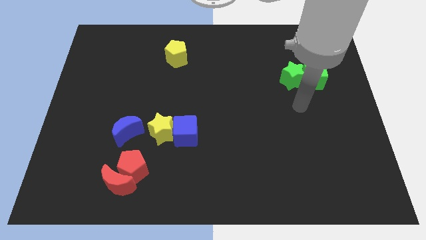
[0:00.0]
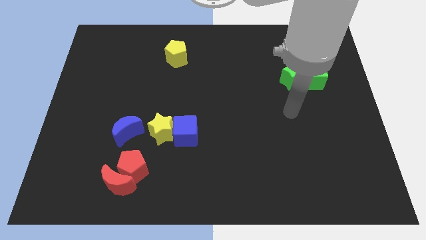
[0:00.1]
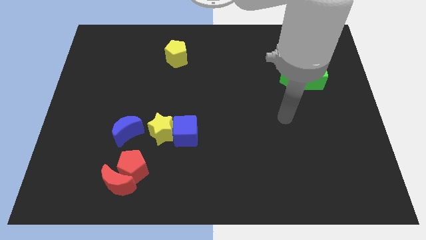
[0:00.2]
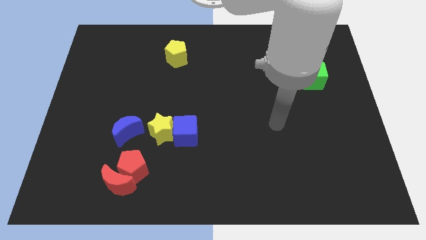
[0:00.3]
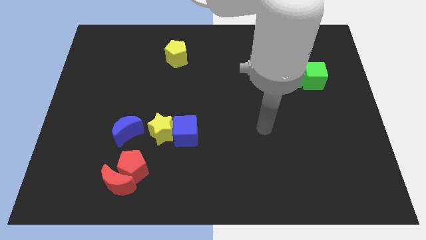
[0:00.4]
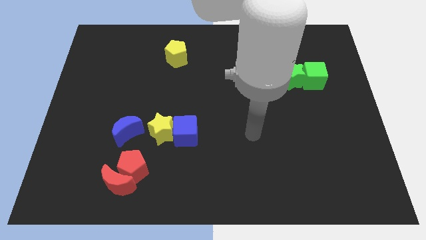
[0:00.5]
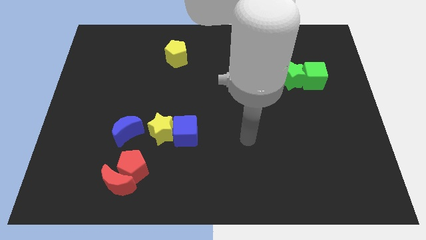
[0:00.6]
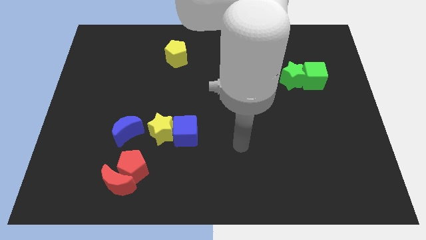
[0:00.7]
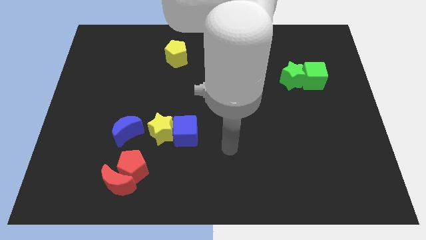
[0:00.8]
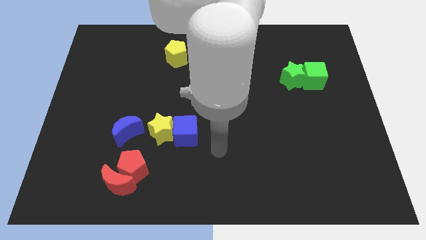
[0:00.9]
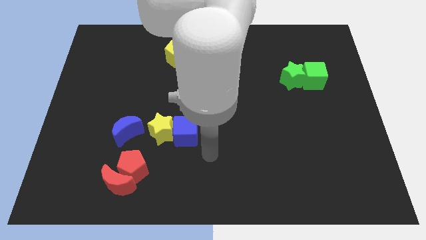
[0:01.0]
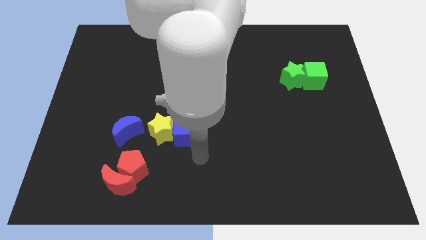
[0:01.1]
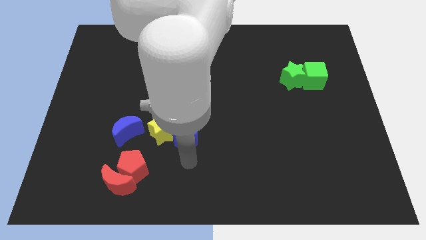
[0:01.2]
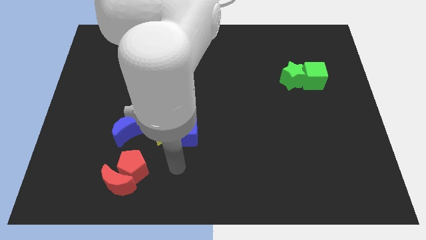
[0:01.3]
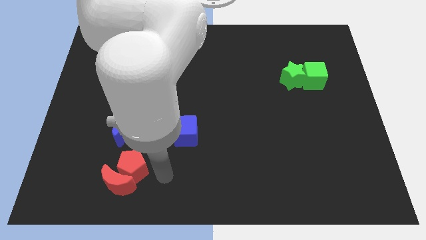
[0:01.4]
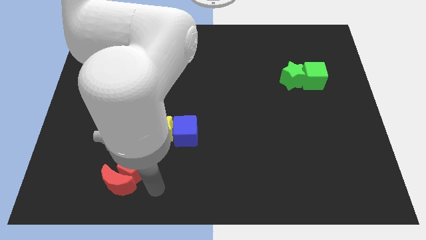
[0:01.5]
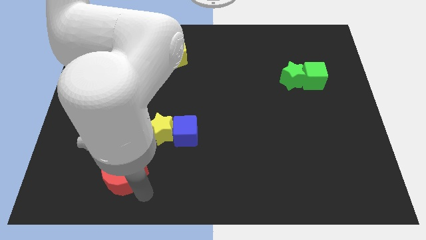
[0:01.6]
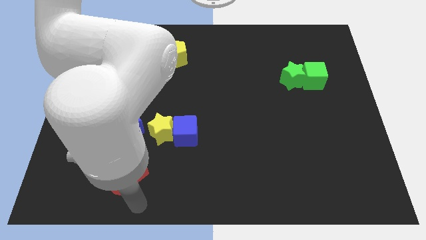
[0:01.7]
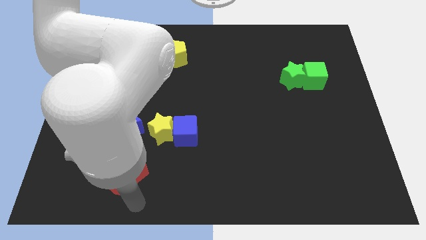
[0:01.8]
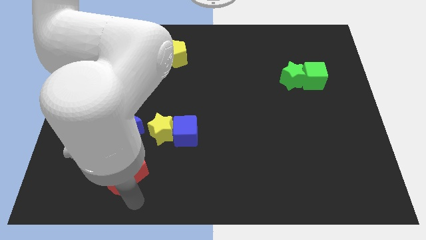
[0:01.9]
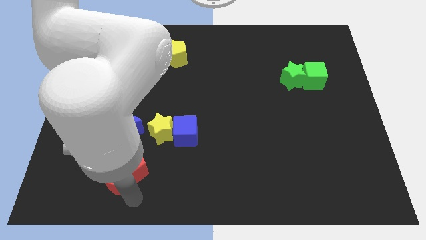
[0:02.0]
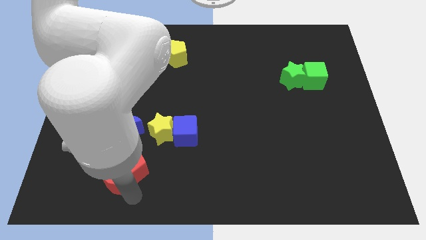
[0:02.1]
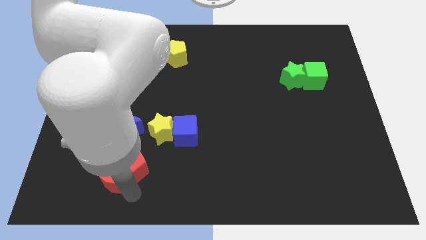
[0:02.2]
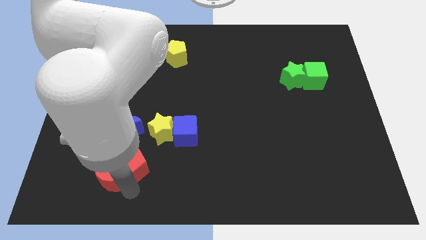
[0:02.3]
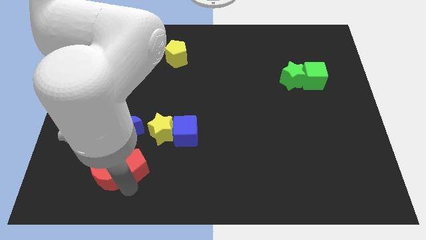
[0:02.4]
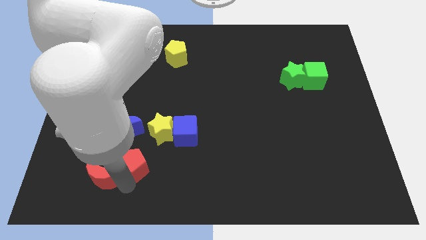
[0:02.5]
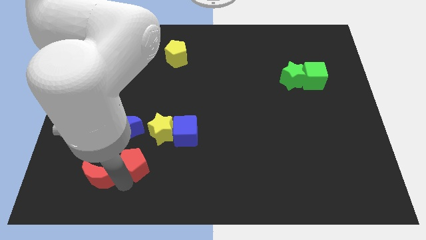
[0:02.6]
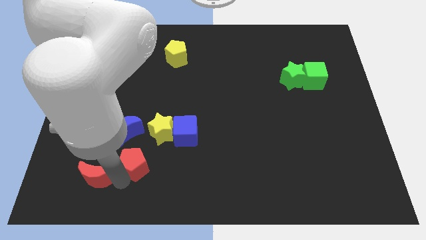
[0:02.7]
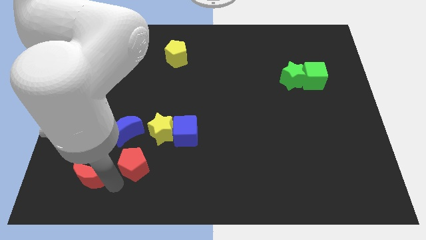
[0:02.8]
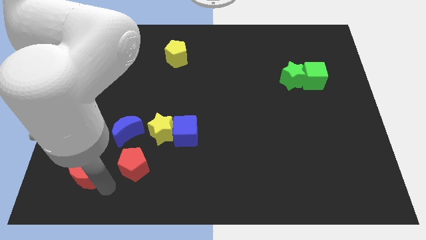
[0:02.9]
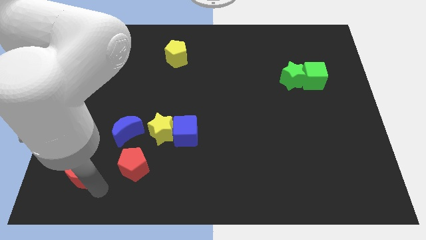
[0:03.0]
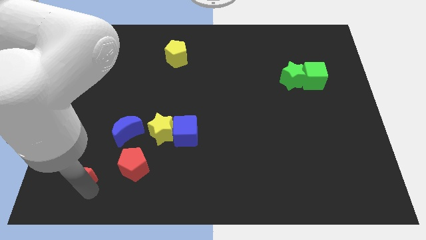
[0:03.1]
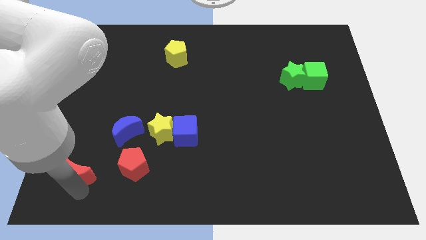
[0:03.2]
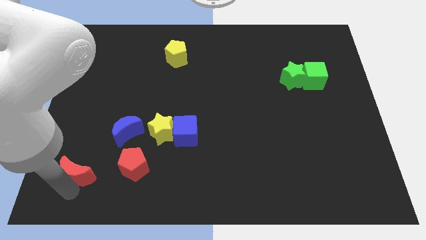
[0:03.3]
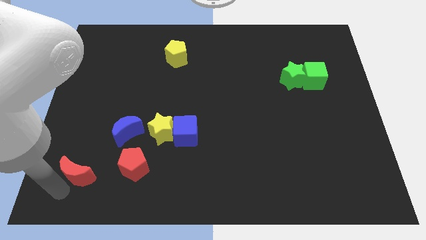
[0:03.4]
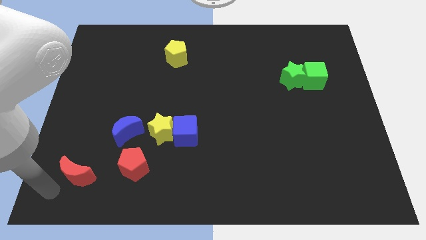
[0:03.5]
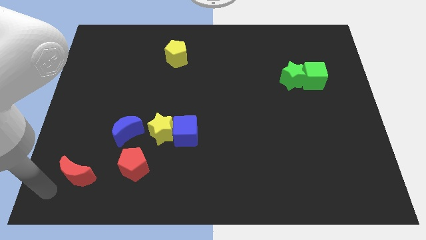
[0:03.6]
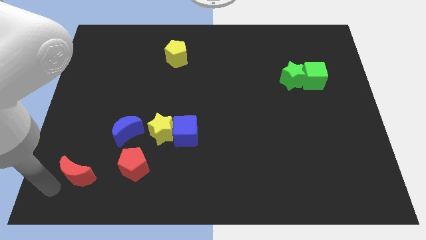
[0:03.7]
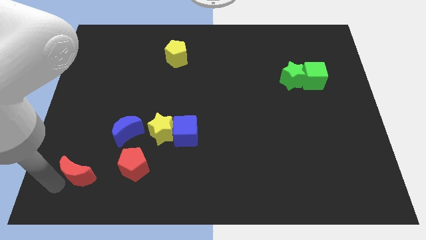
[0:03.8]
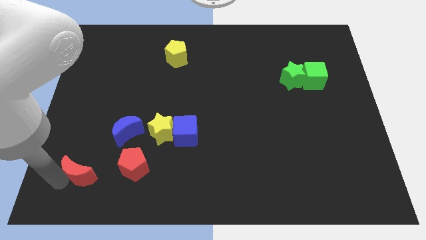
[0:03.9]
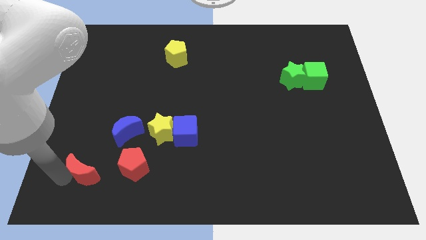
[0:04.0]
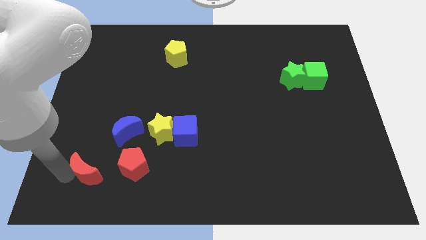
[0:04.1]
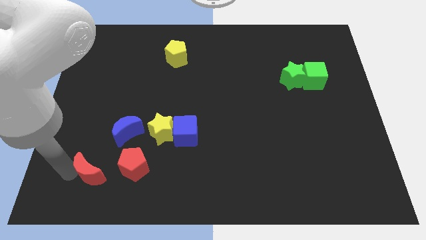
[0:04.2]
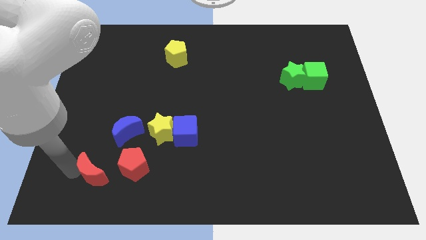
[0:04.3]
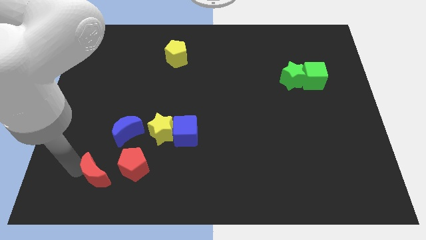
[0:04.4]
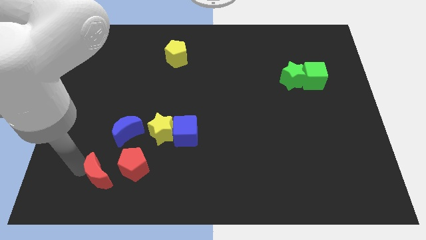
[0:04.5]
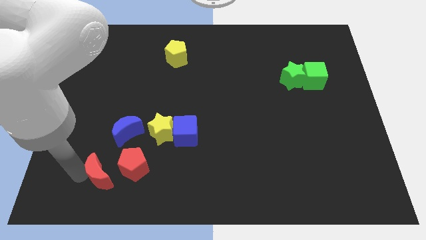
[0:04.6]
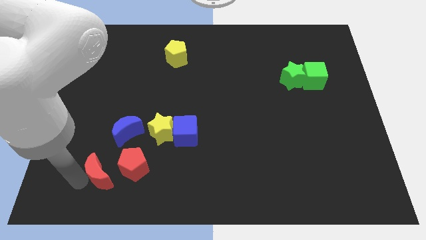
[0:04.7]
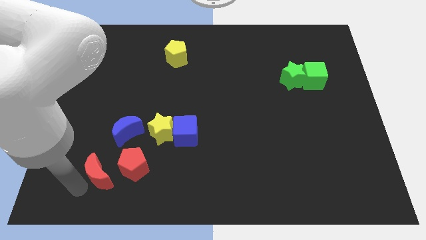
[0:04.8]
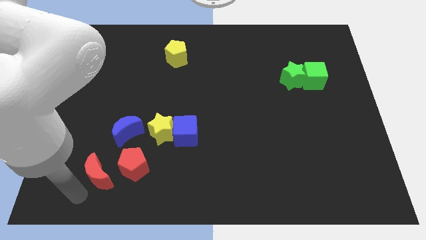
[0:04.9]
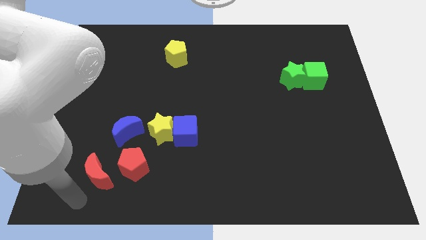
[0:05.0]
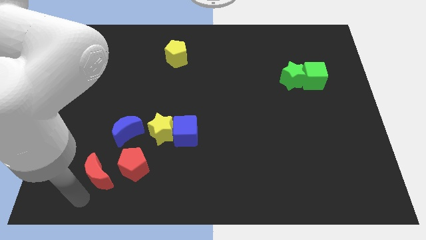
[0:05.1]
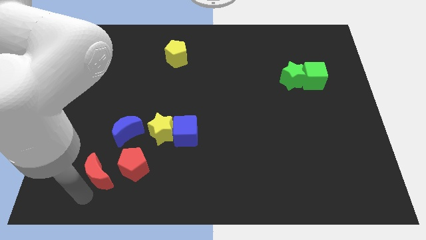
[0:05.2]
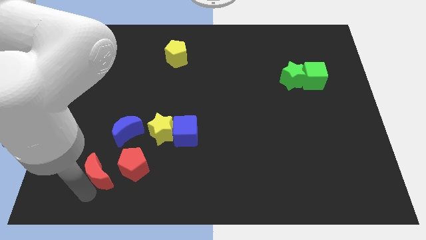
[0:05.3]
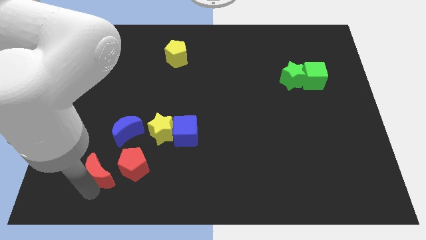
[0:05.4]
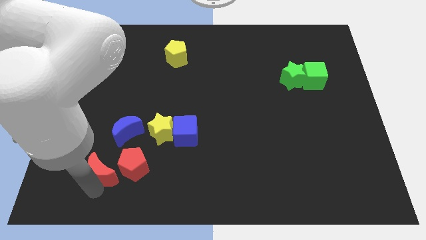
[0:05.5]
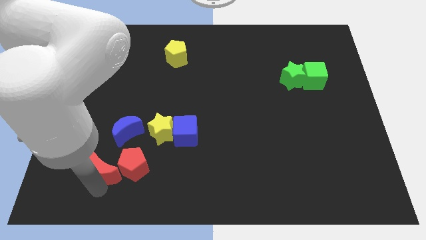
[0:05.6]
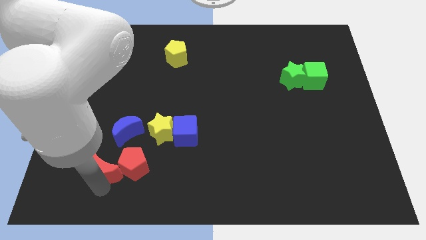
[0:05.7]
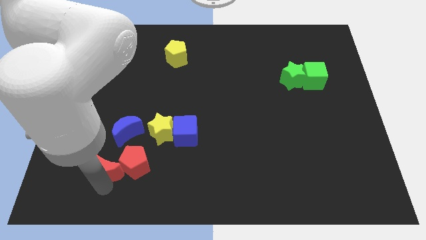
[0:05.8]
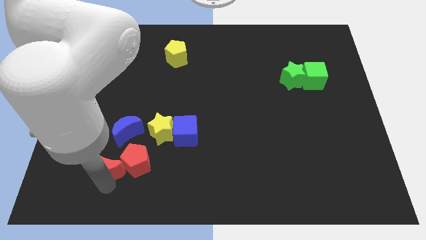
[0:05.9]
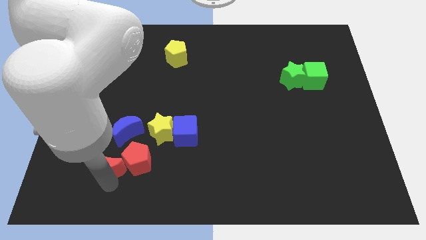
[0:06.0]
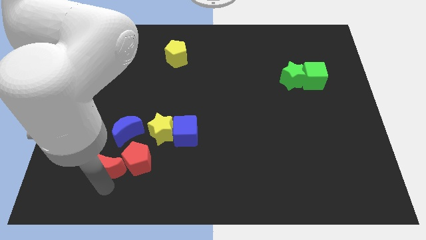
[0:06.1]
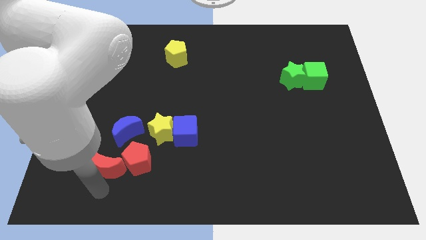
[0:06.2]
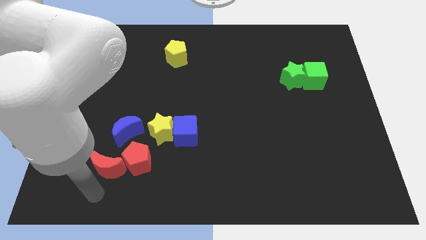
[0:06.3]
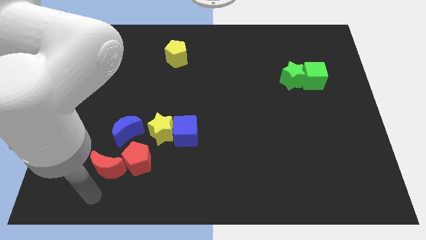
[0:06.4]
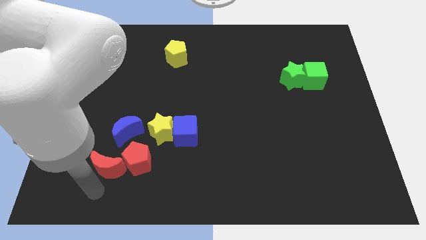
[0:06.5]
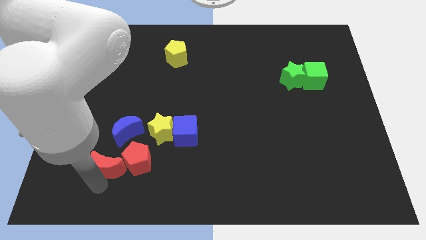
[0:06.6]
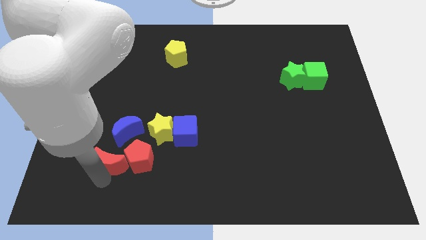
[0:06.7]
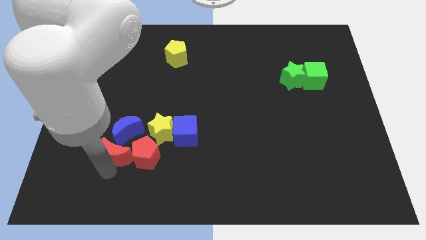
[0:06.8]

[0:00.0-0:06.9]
slide the red moon to the blue moon

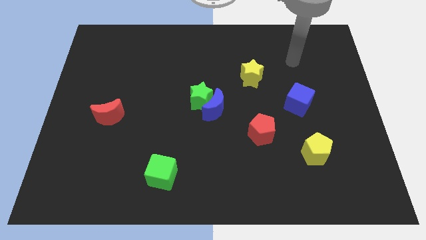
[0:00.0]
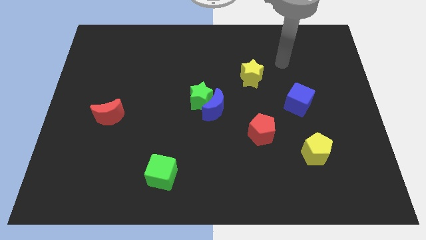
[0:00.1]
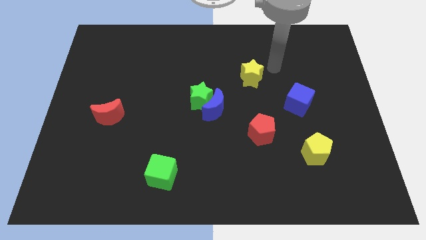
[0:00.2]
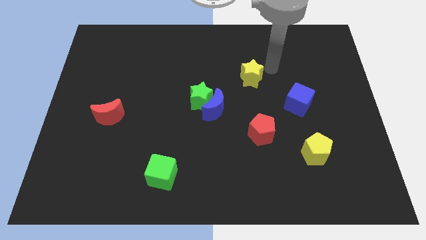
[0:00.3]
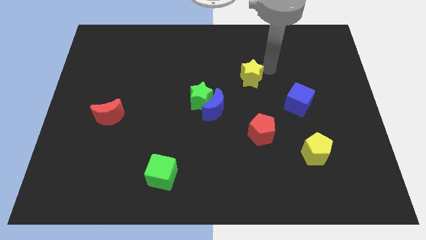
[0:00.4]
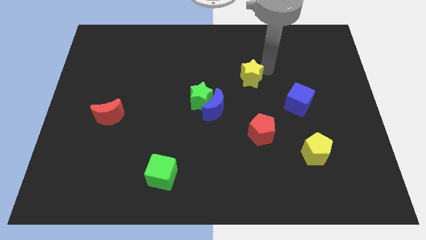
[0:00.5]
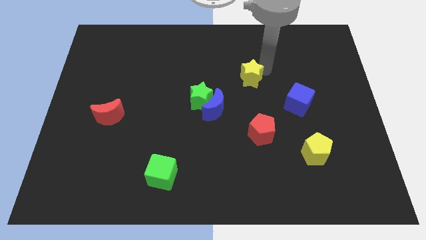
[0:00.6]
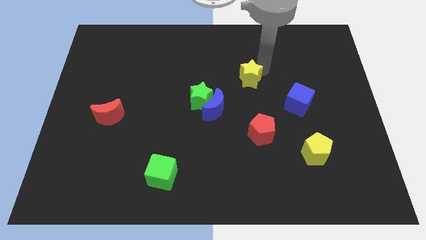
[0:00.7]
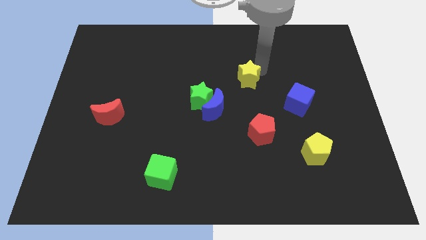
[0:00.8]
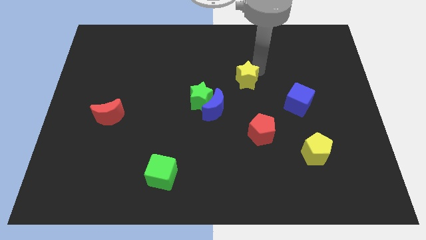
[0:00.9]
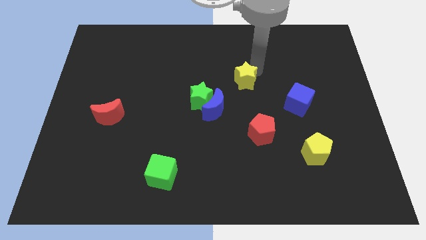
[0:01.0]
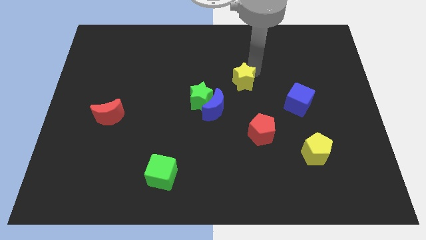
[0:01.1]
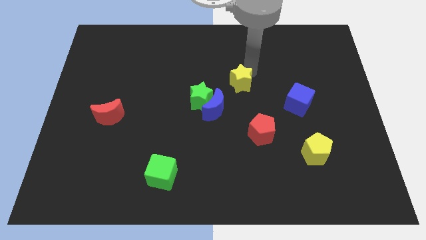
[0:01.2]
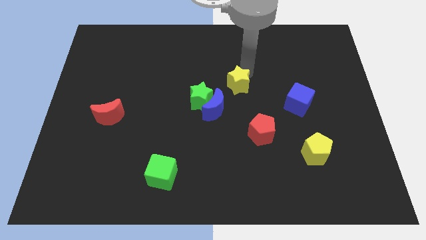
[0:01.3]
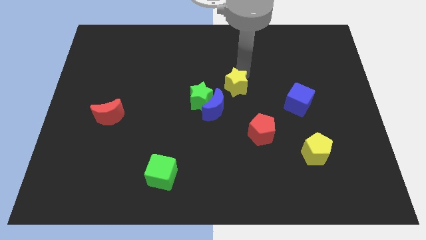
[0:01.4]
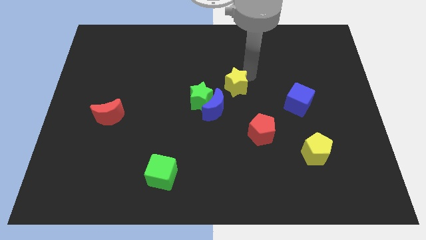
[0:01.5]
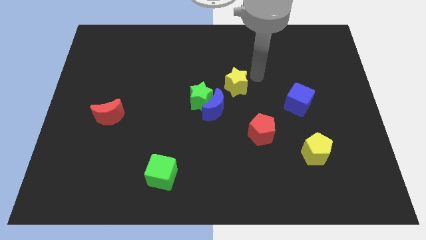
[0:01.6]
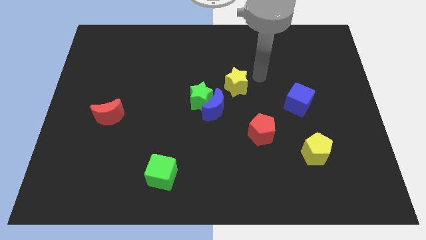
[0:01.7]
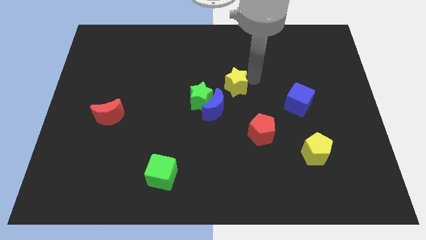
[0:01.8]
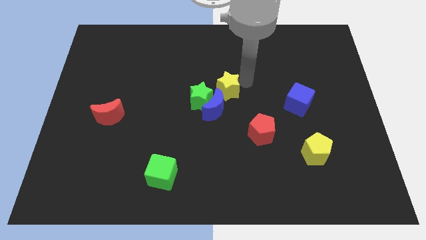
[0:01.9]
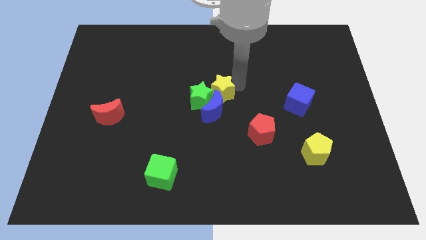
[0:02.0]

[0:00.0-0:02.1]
slide the yellow star next to the green star
